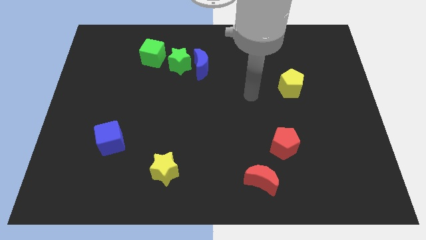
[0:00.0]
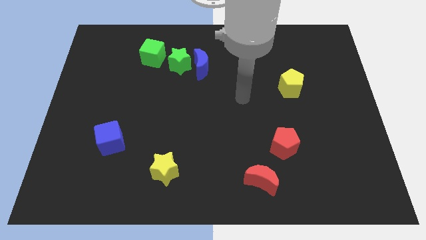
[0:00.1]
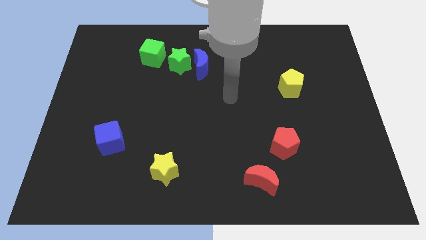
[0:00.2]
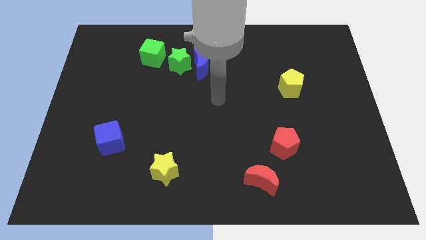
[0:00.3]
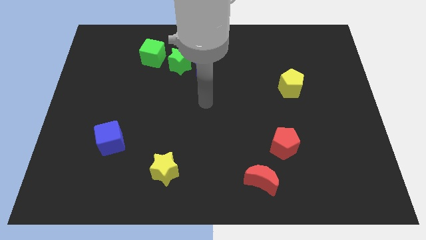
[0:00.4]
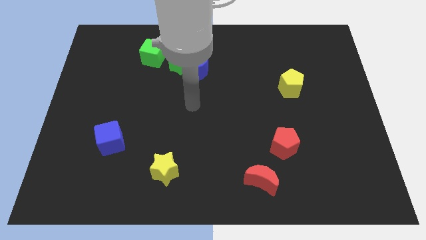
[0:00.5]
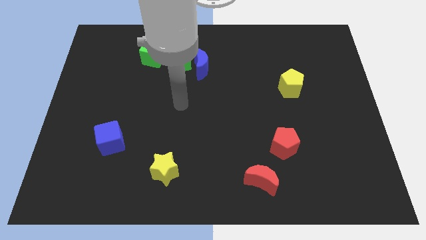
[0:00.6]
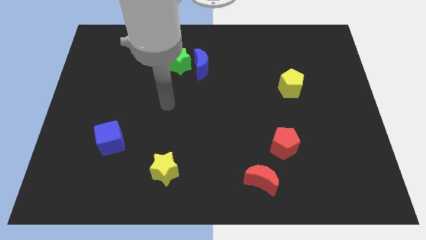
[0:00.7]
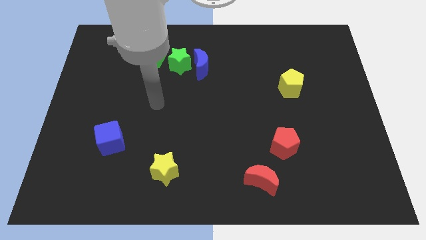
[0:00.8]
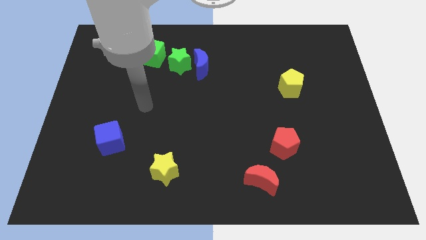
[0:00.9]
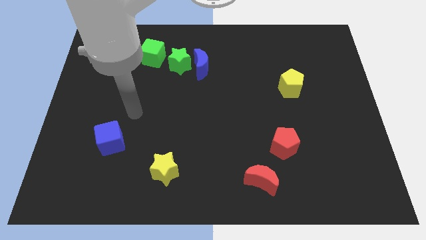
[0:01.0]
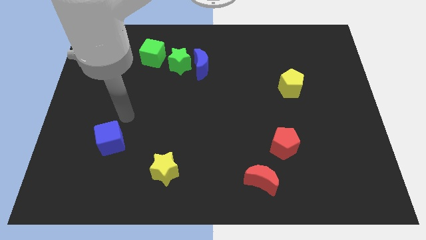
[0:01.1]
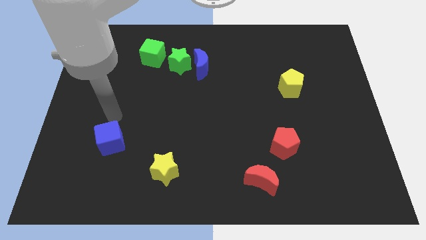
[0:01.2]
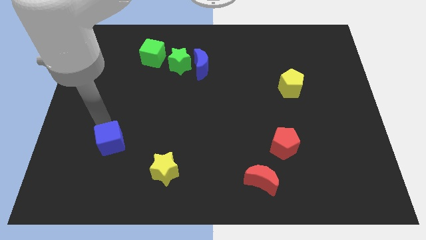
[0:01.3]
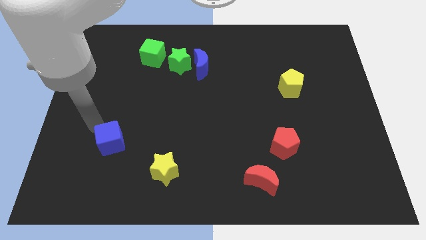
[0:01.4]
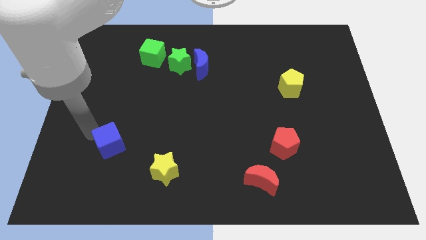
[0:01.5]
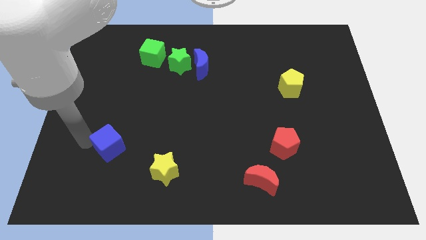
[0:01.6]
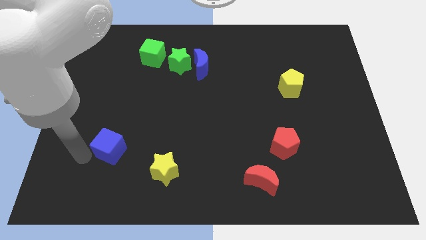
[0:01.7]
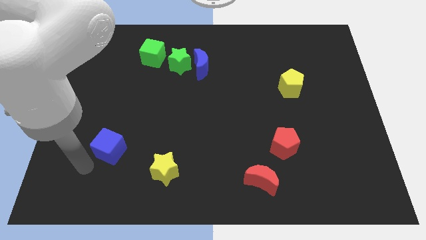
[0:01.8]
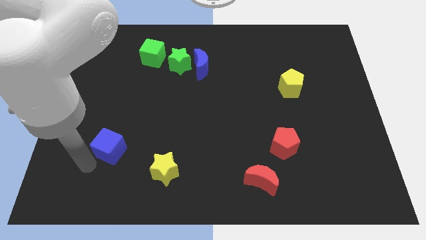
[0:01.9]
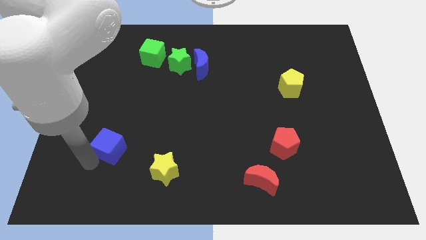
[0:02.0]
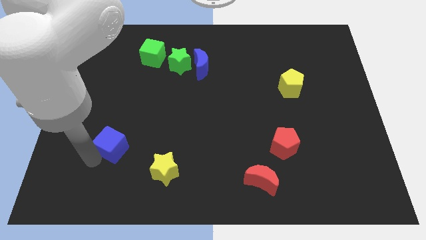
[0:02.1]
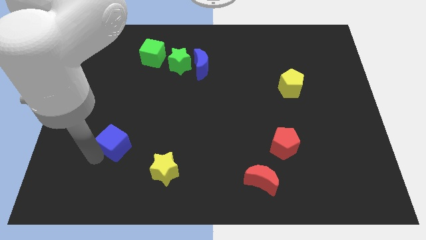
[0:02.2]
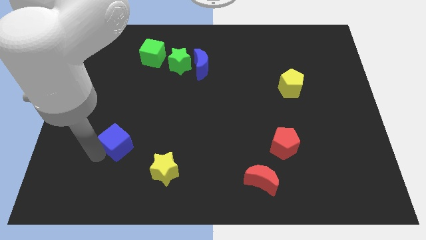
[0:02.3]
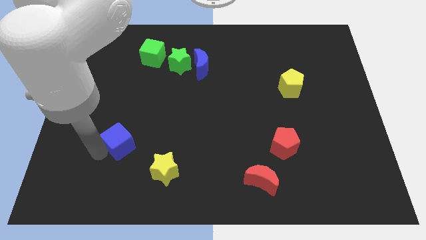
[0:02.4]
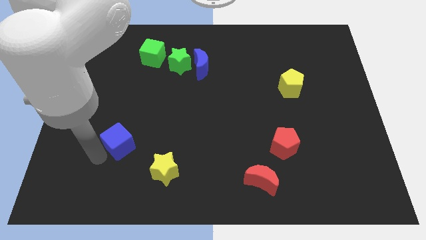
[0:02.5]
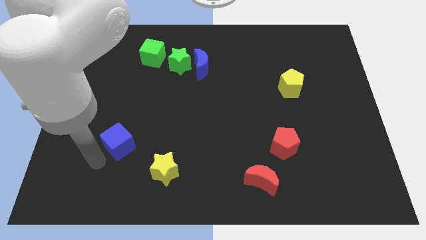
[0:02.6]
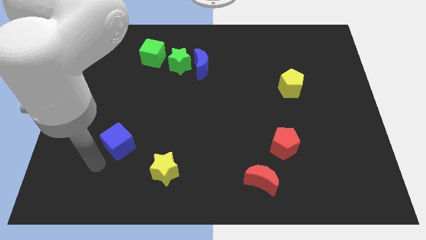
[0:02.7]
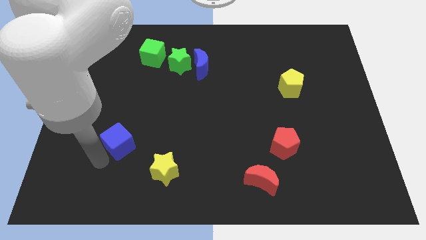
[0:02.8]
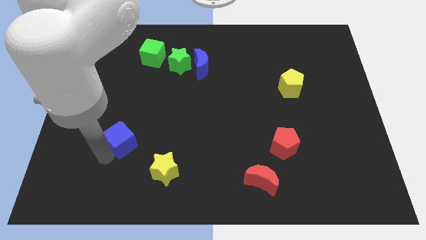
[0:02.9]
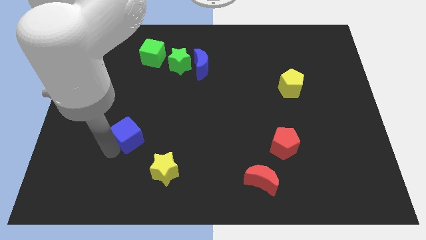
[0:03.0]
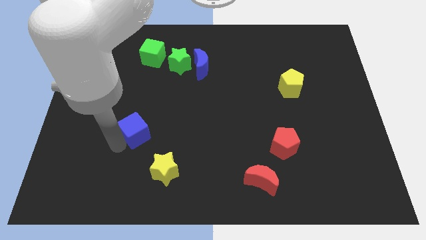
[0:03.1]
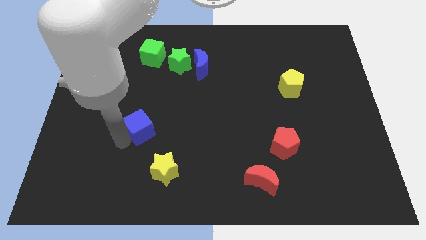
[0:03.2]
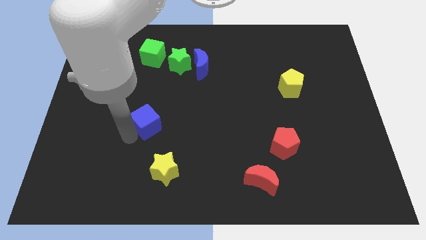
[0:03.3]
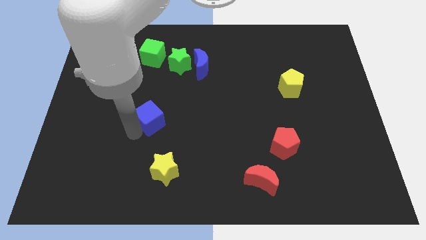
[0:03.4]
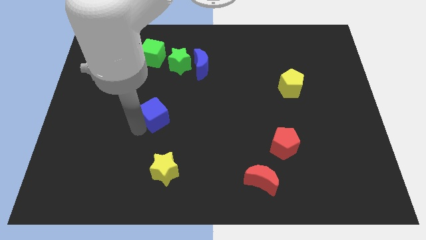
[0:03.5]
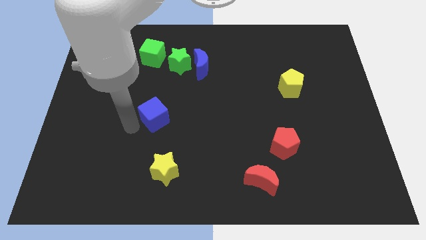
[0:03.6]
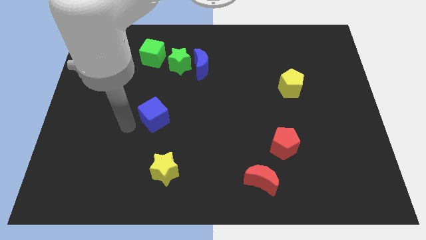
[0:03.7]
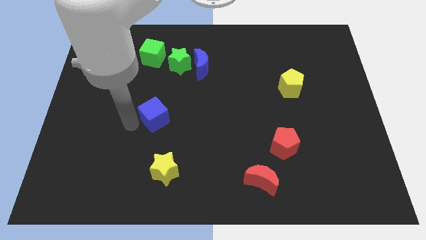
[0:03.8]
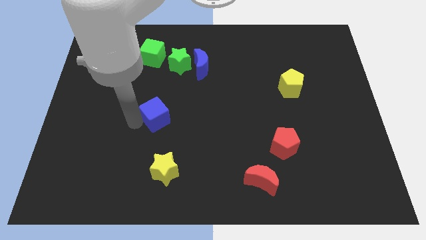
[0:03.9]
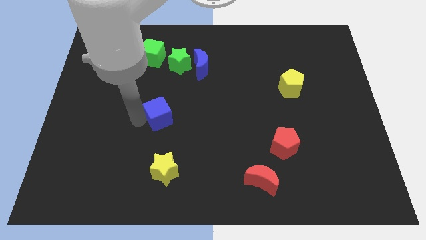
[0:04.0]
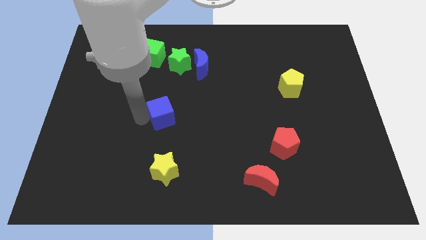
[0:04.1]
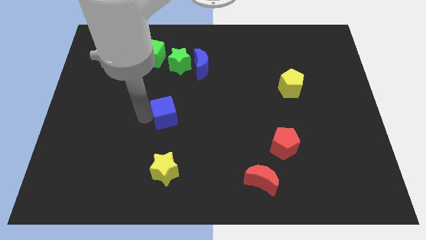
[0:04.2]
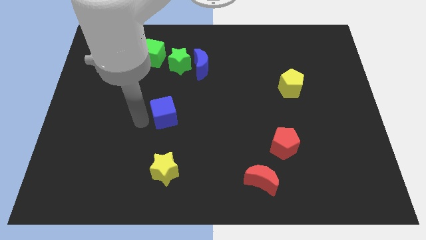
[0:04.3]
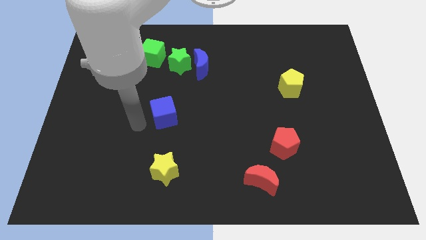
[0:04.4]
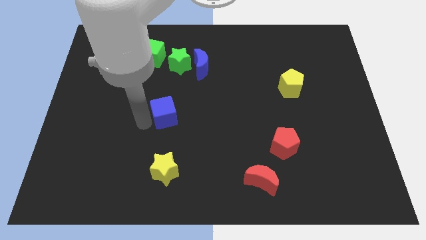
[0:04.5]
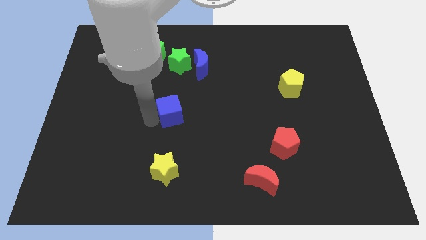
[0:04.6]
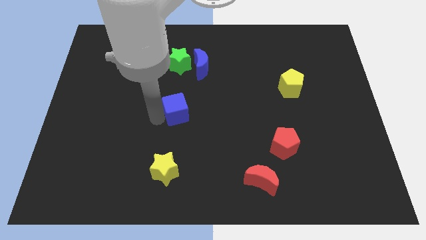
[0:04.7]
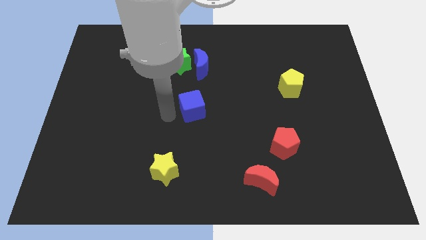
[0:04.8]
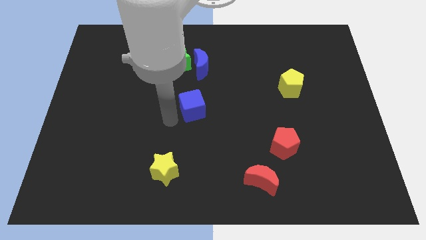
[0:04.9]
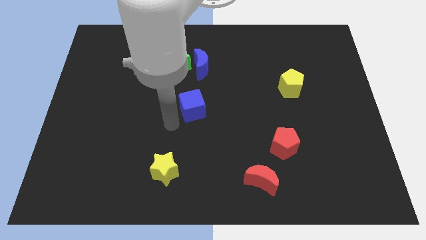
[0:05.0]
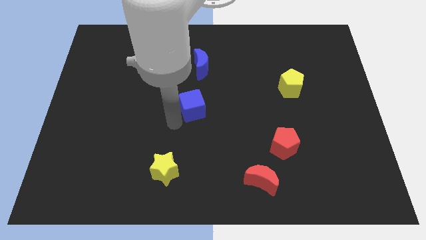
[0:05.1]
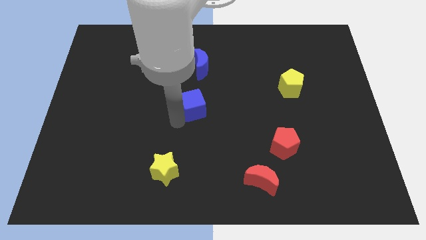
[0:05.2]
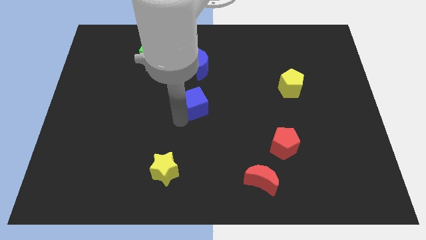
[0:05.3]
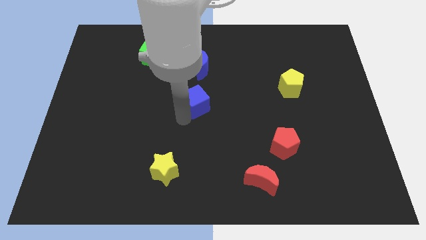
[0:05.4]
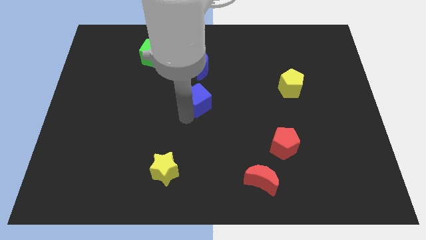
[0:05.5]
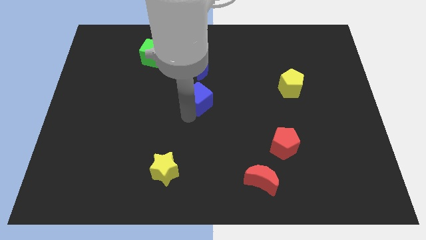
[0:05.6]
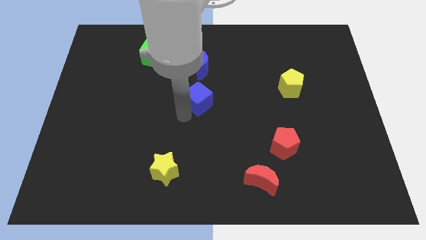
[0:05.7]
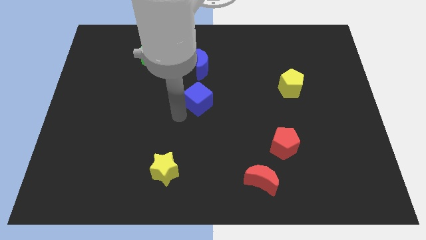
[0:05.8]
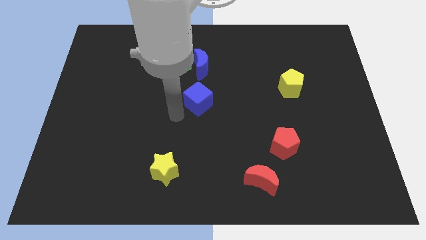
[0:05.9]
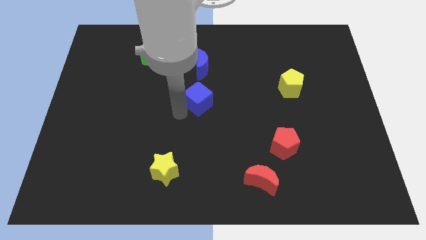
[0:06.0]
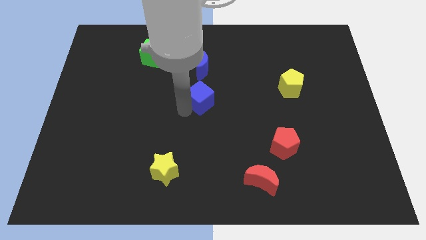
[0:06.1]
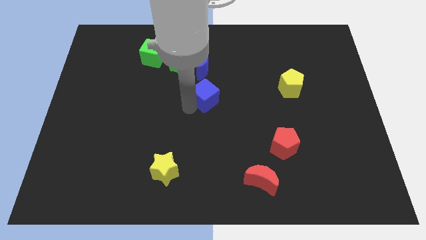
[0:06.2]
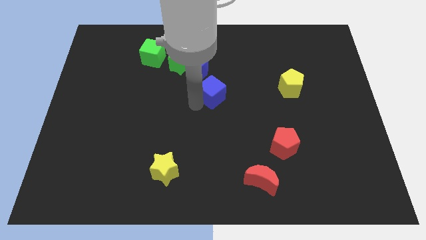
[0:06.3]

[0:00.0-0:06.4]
push the blue cube diagonally down and to the right of the blue moon
